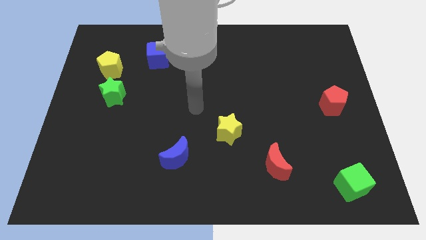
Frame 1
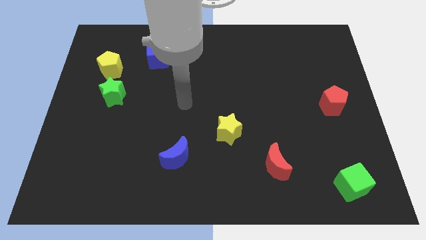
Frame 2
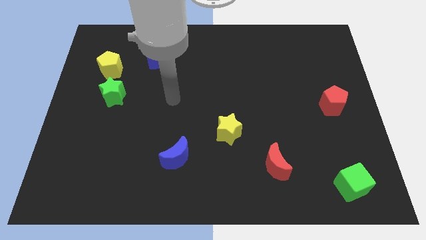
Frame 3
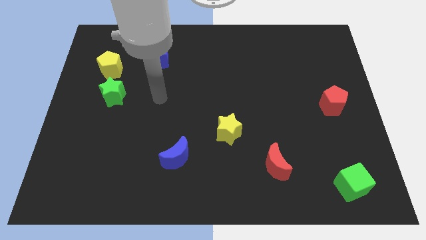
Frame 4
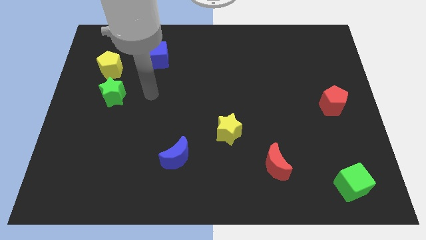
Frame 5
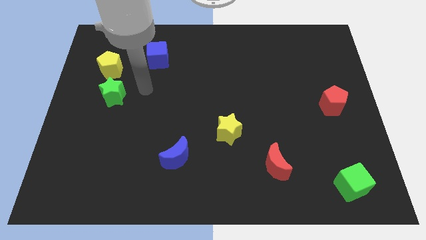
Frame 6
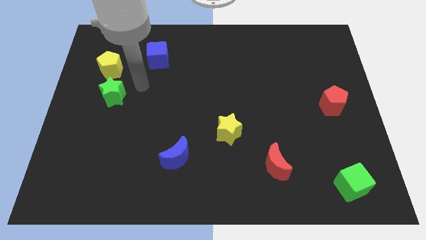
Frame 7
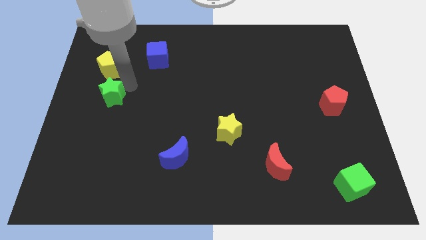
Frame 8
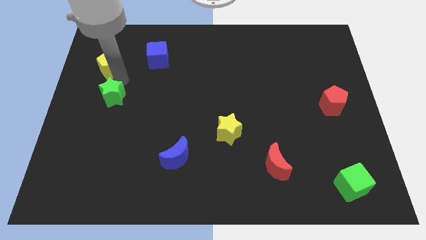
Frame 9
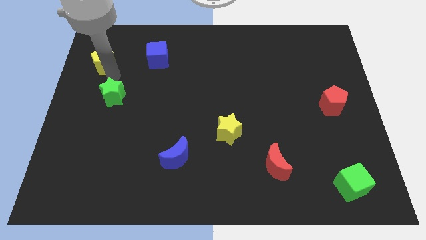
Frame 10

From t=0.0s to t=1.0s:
separate the green star from the yellow pentagon

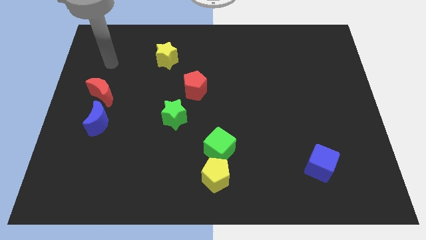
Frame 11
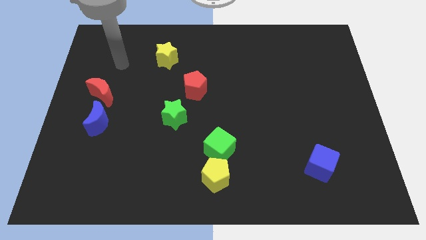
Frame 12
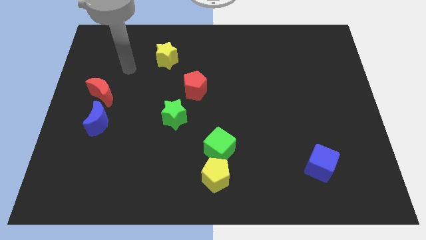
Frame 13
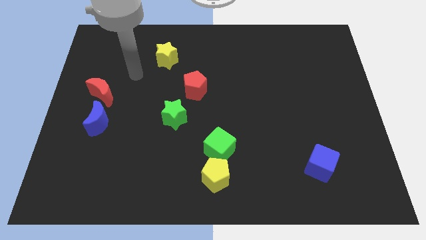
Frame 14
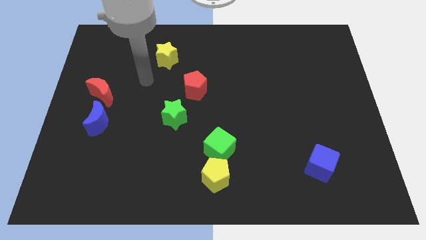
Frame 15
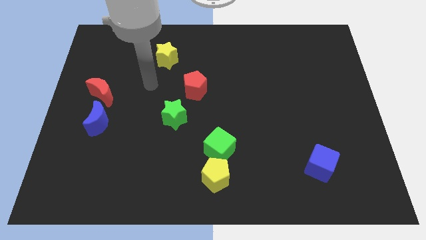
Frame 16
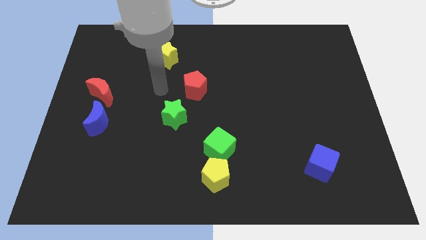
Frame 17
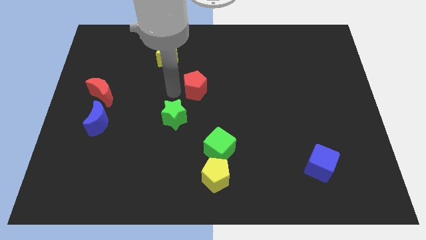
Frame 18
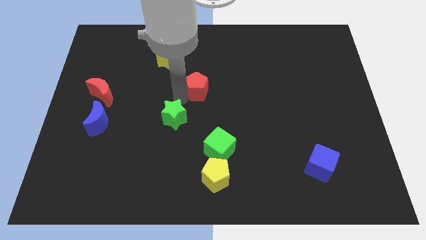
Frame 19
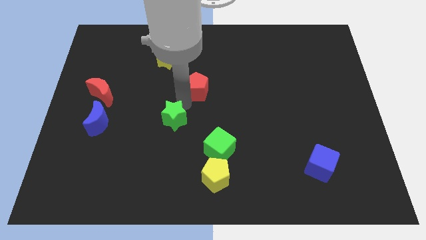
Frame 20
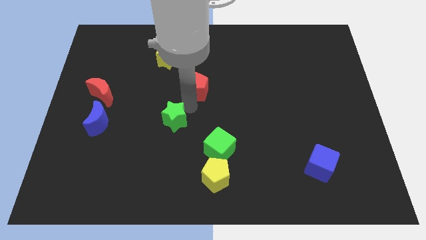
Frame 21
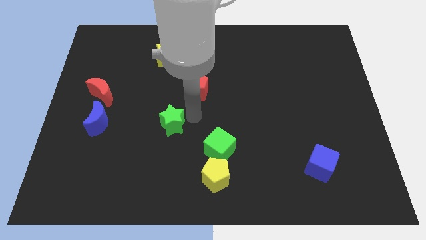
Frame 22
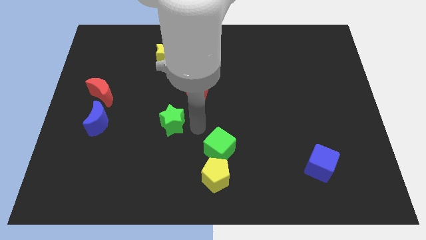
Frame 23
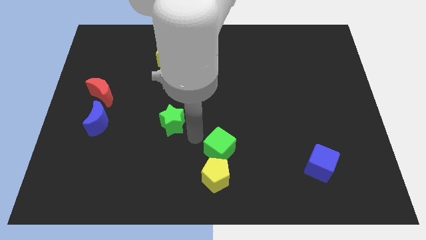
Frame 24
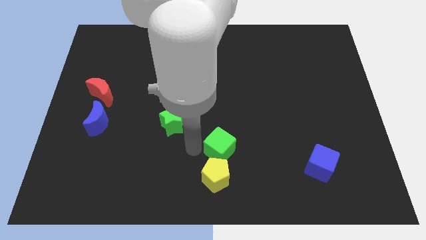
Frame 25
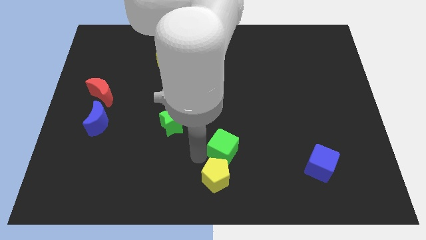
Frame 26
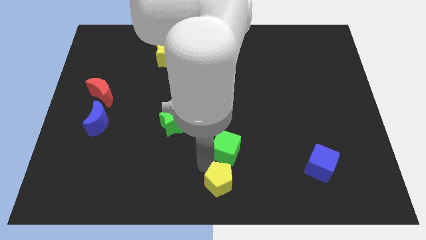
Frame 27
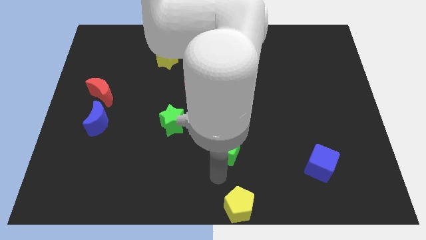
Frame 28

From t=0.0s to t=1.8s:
move the green cube away from the yellow pentagon

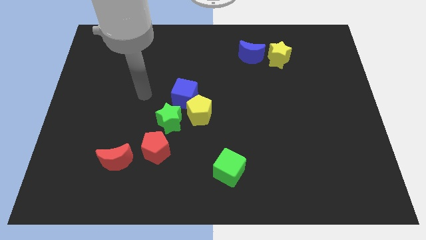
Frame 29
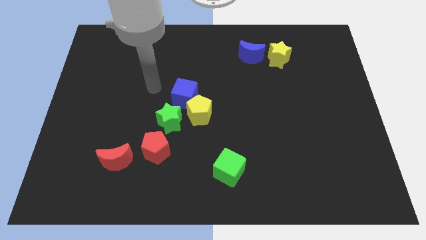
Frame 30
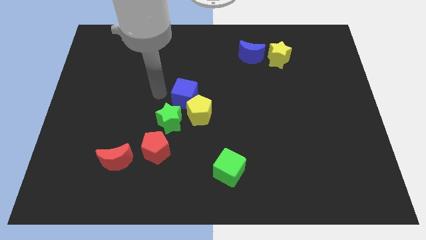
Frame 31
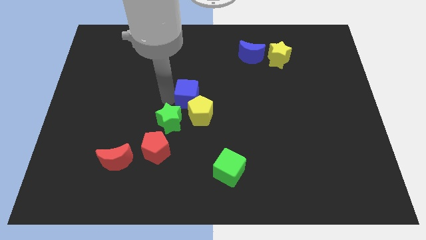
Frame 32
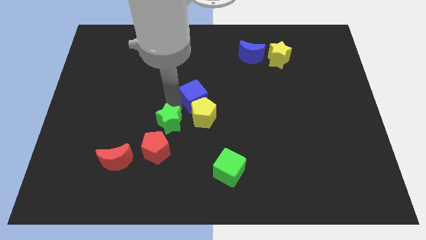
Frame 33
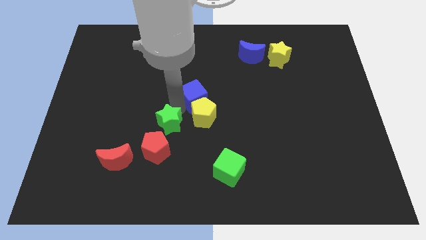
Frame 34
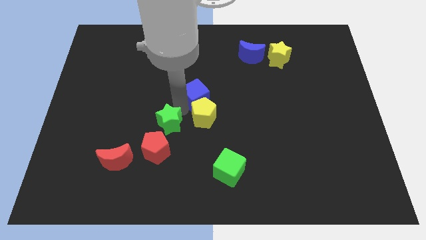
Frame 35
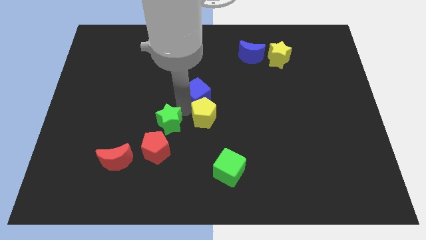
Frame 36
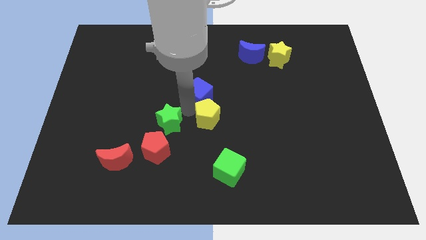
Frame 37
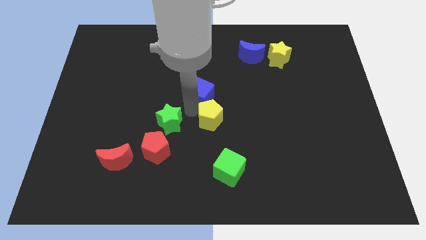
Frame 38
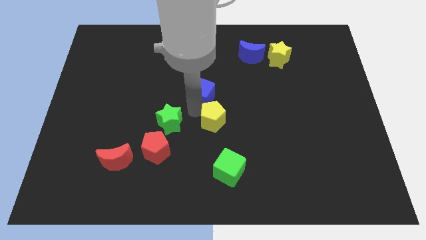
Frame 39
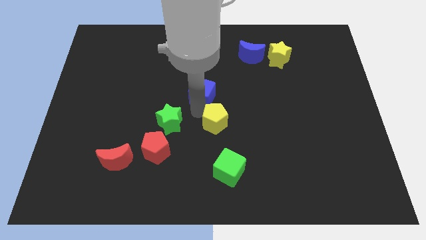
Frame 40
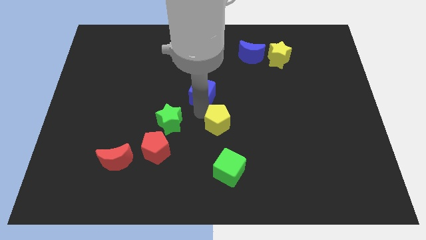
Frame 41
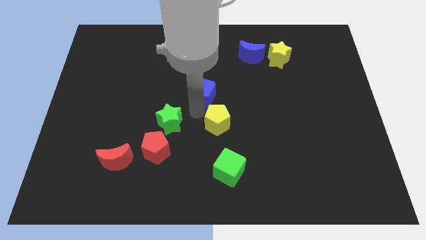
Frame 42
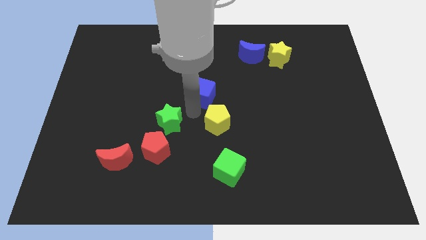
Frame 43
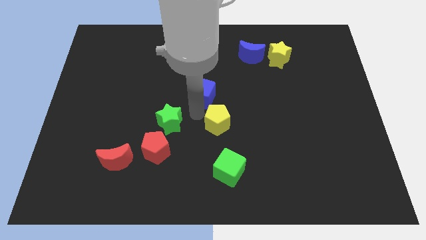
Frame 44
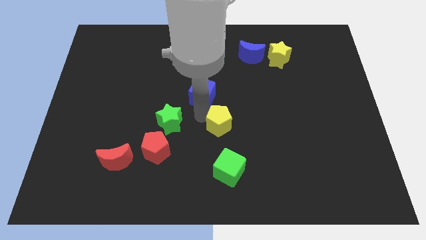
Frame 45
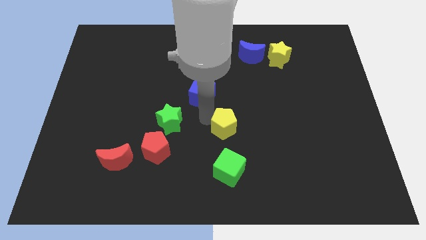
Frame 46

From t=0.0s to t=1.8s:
pull the yellow pentagon apart from the blue cube and green star

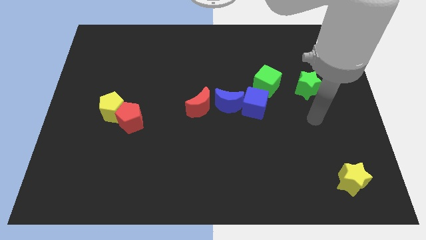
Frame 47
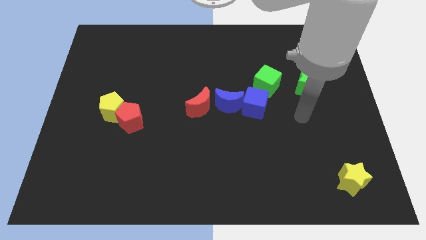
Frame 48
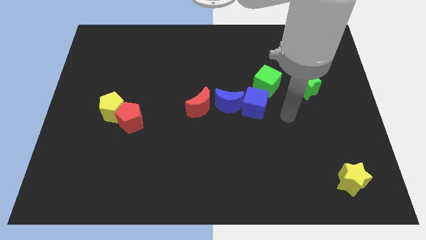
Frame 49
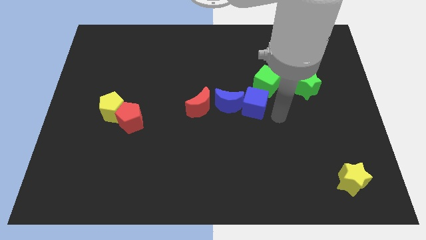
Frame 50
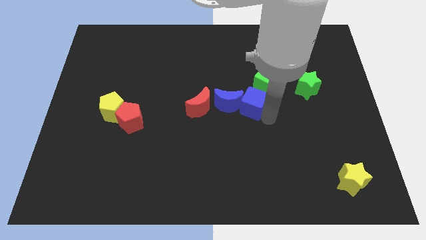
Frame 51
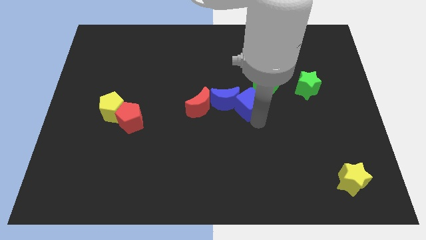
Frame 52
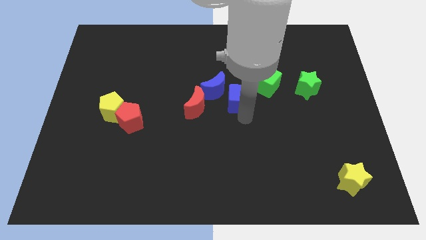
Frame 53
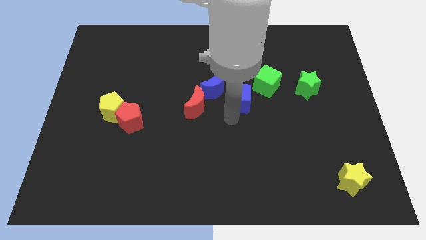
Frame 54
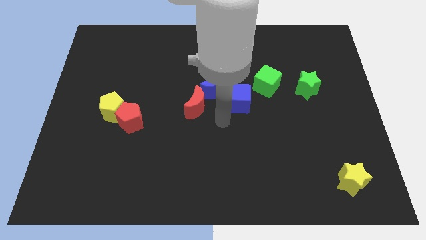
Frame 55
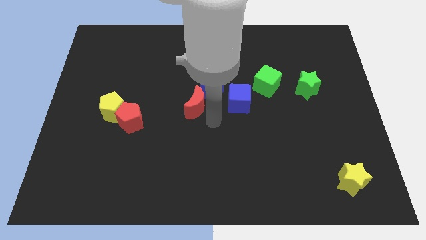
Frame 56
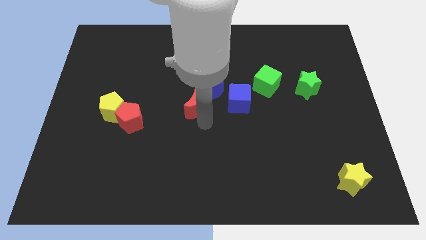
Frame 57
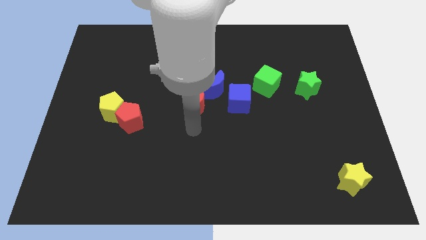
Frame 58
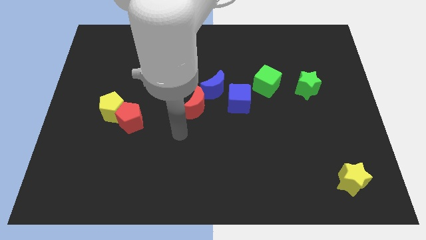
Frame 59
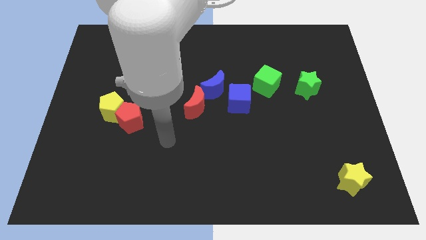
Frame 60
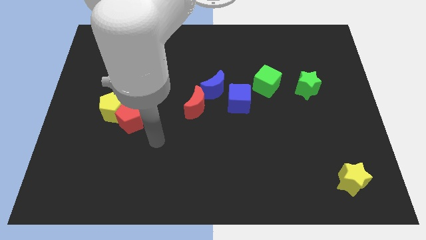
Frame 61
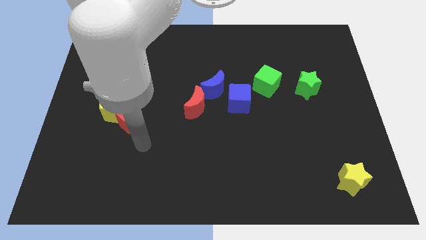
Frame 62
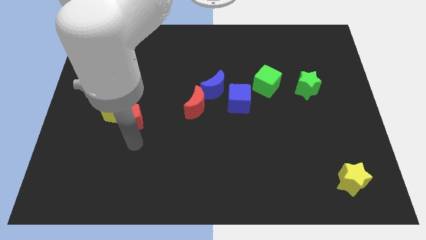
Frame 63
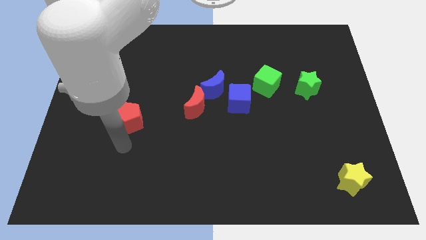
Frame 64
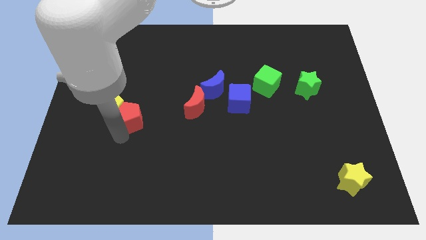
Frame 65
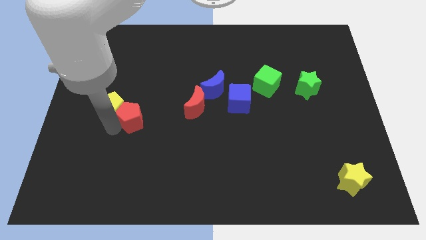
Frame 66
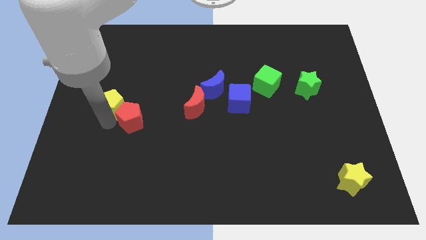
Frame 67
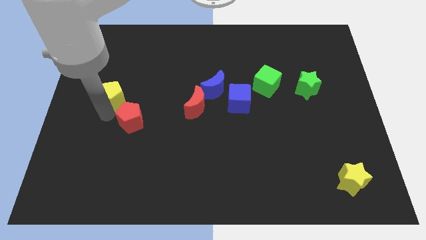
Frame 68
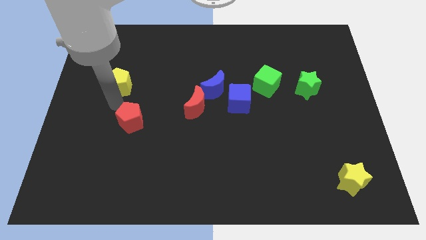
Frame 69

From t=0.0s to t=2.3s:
separate the red pentagon from the yellow pentagon

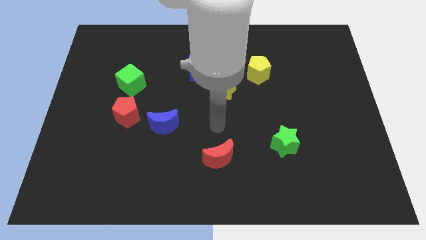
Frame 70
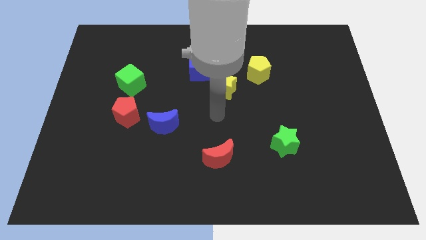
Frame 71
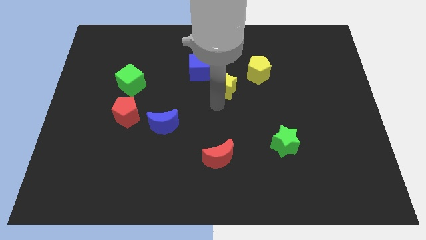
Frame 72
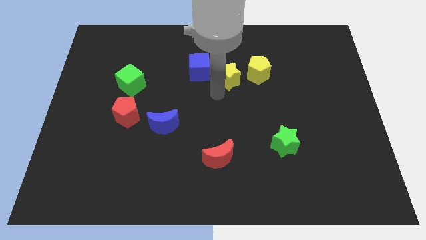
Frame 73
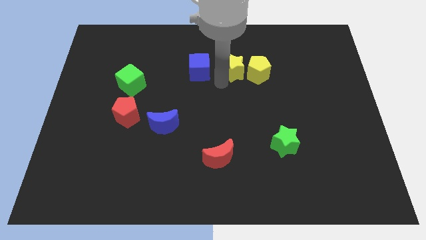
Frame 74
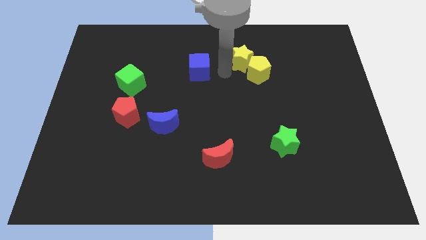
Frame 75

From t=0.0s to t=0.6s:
pull the blue cube apart from the yellow star

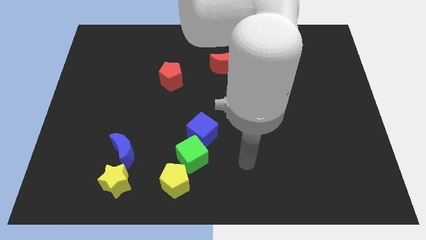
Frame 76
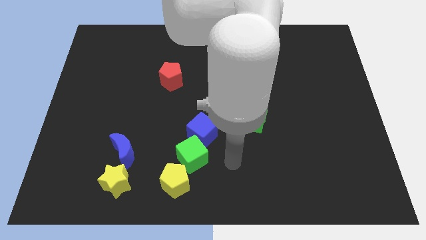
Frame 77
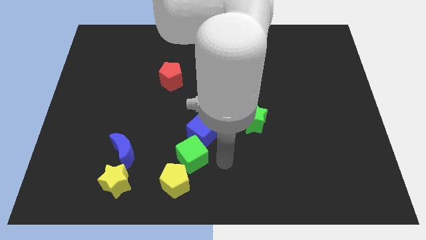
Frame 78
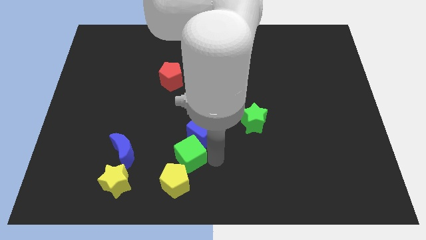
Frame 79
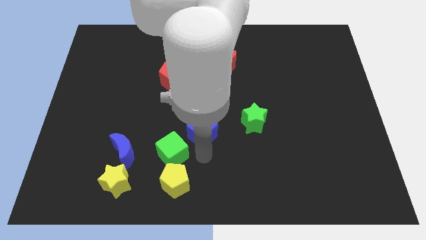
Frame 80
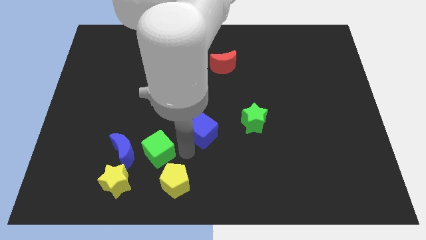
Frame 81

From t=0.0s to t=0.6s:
move the blue cube away from the green cube

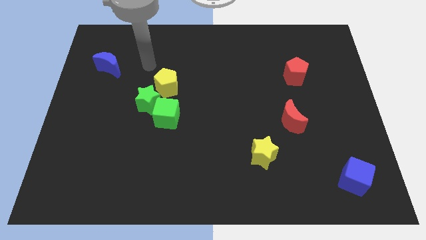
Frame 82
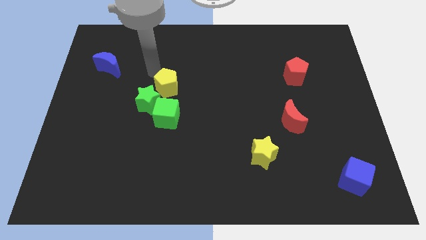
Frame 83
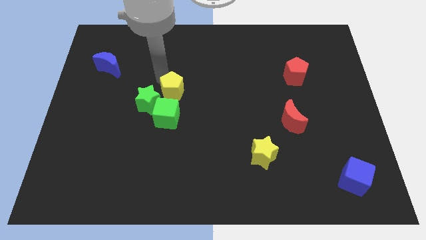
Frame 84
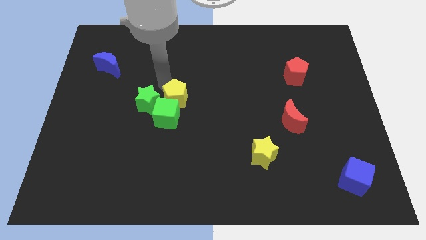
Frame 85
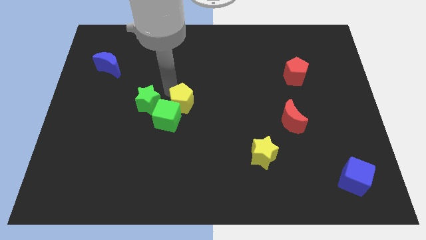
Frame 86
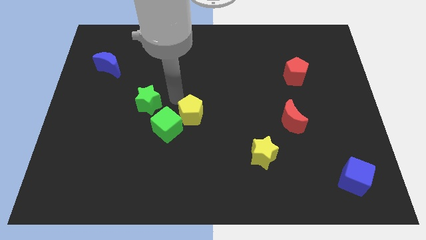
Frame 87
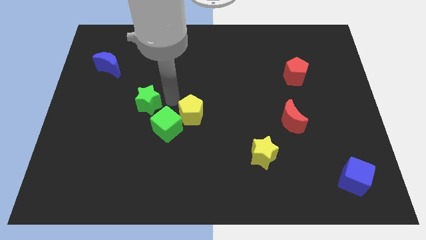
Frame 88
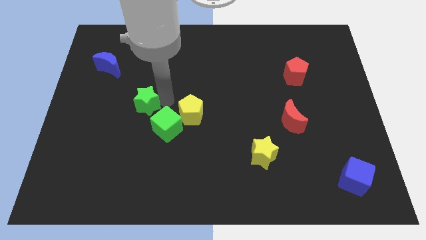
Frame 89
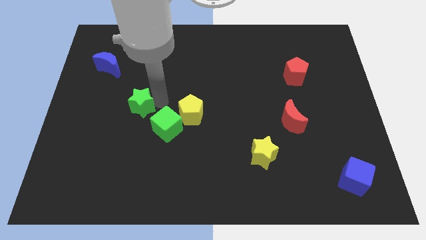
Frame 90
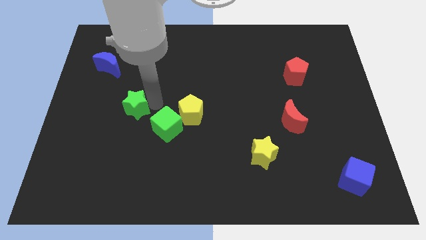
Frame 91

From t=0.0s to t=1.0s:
move the green star away from the green cube and yellow pentagon

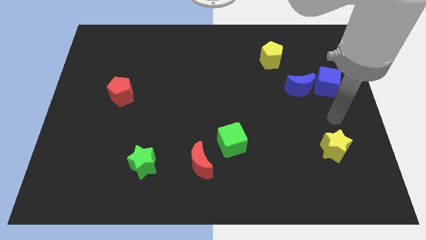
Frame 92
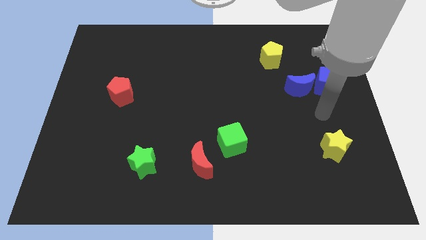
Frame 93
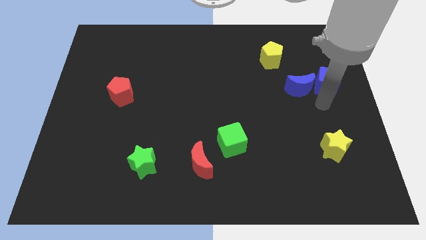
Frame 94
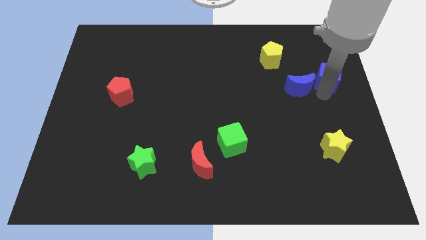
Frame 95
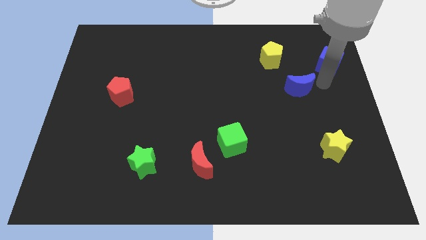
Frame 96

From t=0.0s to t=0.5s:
move the blue moon away from the blue cube
